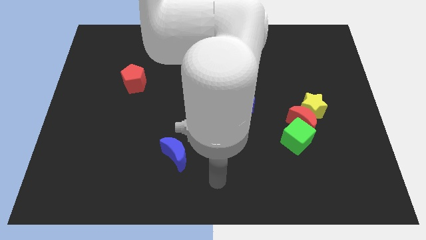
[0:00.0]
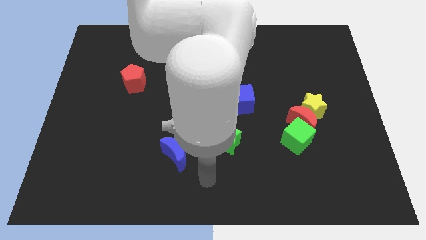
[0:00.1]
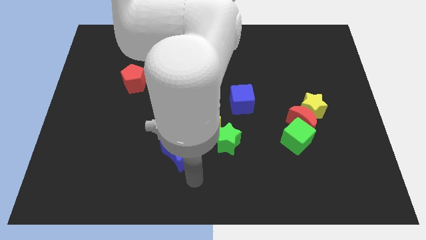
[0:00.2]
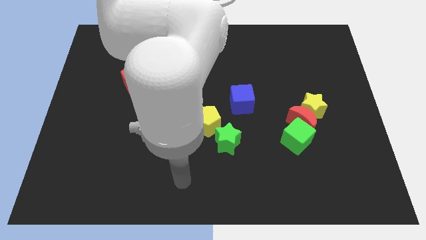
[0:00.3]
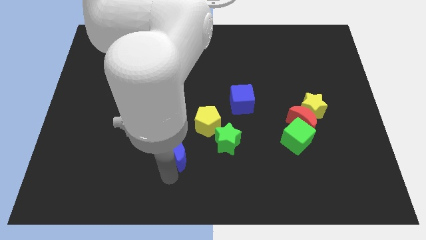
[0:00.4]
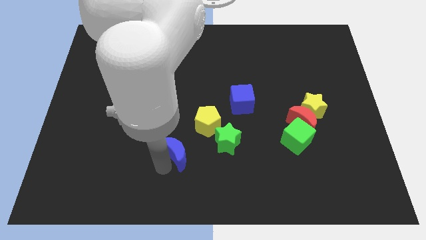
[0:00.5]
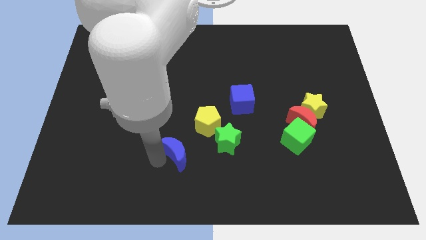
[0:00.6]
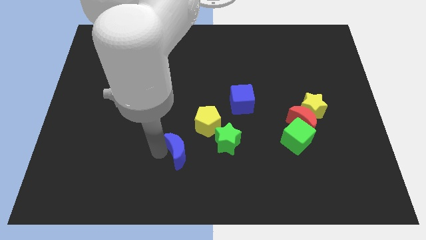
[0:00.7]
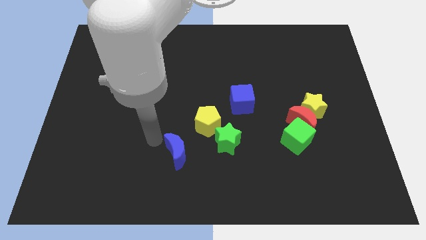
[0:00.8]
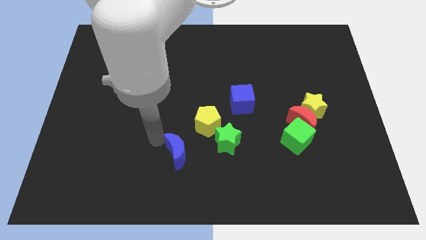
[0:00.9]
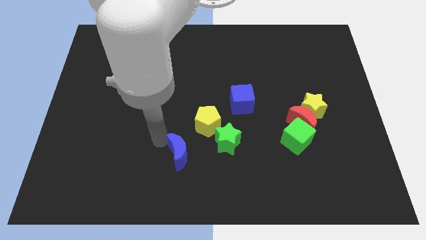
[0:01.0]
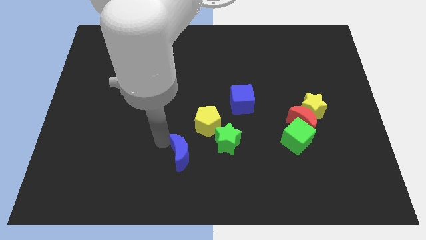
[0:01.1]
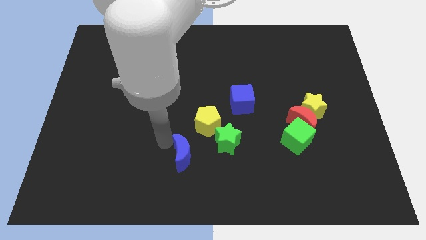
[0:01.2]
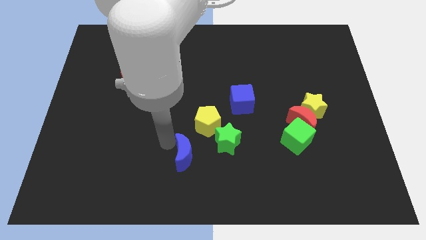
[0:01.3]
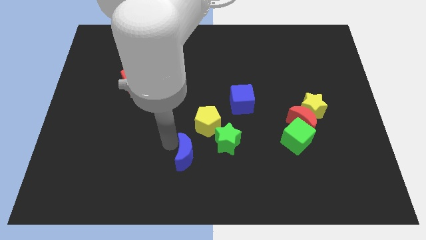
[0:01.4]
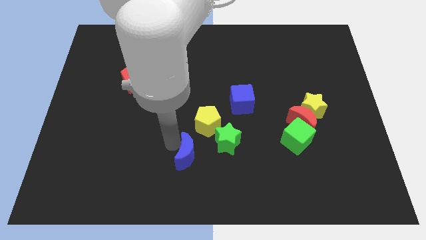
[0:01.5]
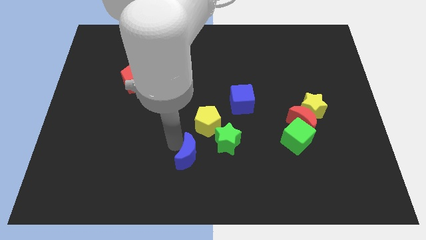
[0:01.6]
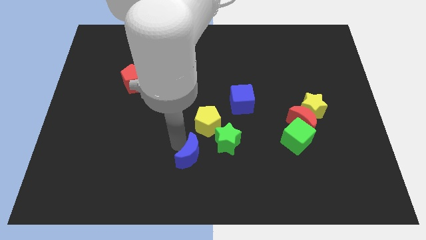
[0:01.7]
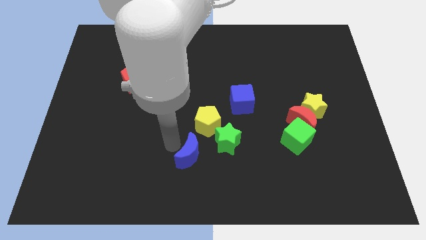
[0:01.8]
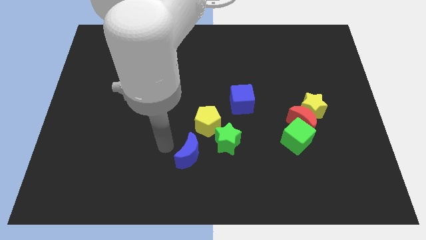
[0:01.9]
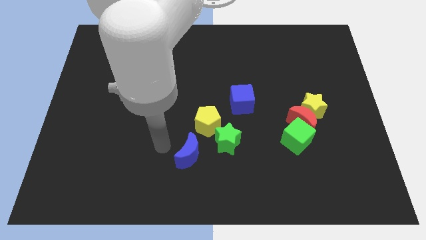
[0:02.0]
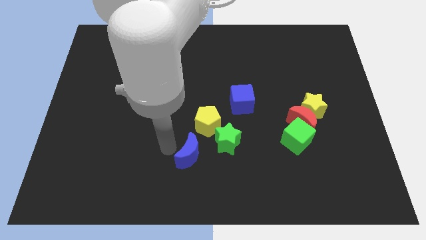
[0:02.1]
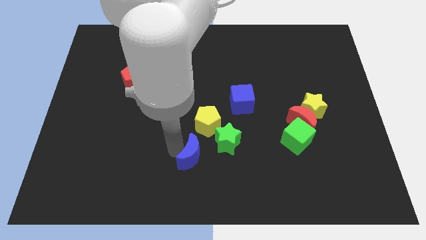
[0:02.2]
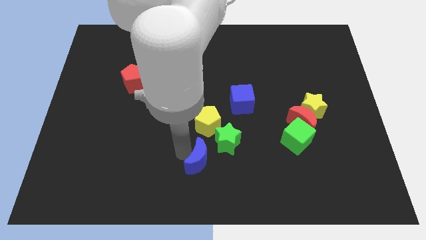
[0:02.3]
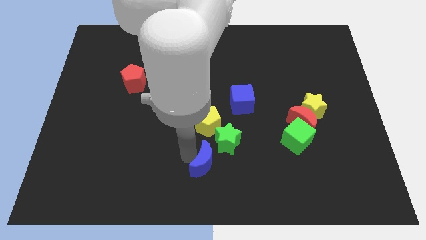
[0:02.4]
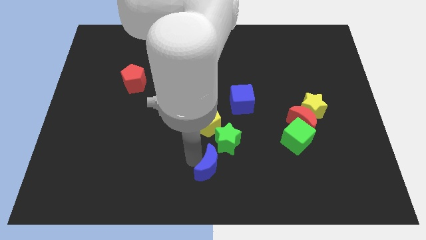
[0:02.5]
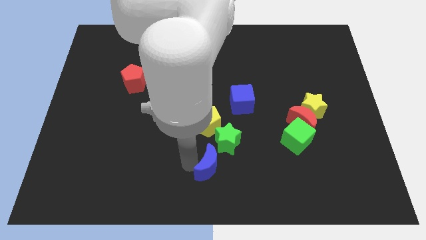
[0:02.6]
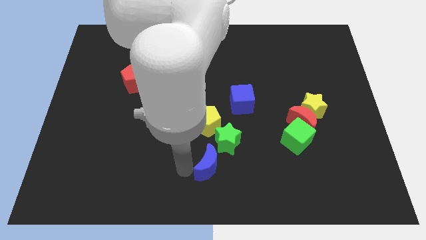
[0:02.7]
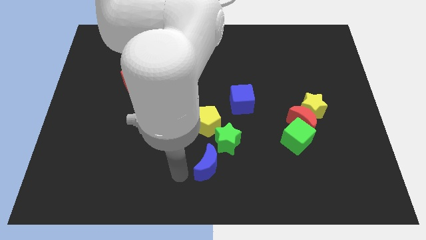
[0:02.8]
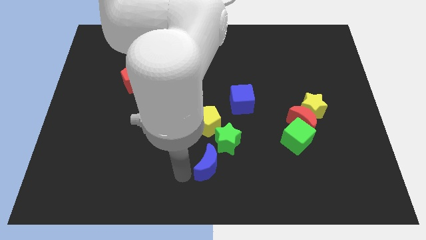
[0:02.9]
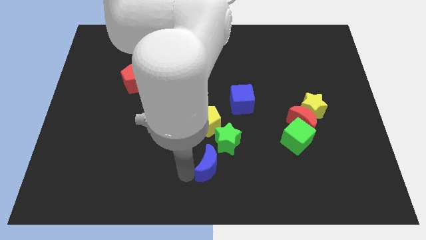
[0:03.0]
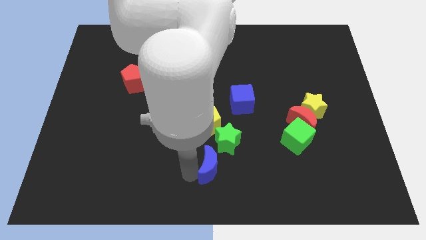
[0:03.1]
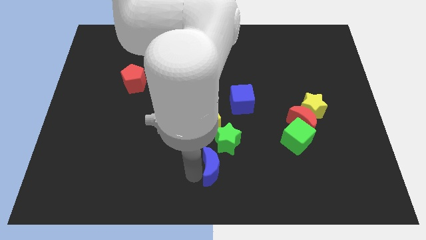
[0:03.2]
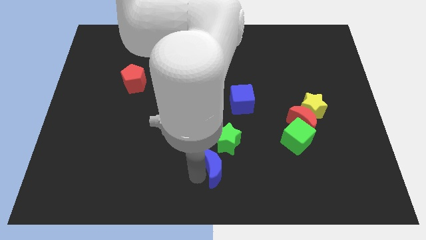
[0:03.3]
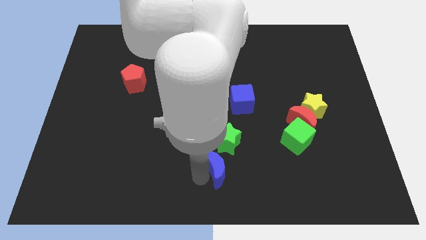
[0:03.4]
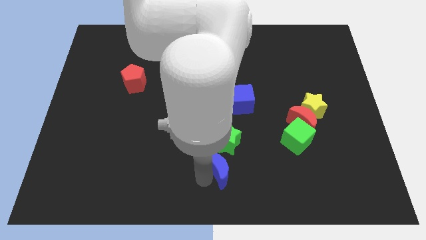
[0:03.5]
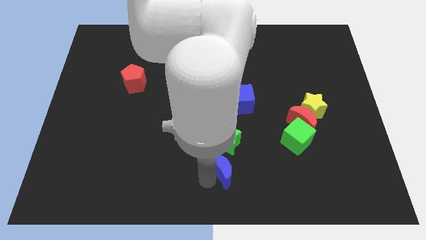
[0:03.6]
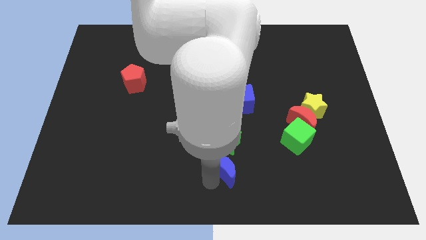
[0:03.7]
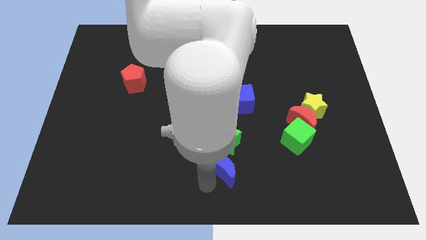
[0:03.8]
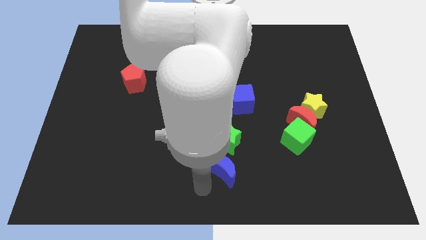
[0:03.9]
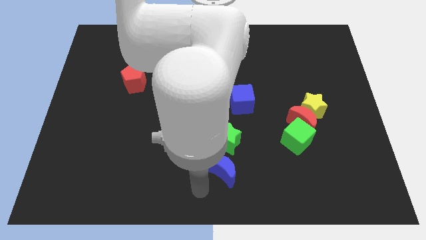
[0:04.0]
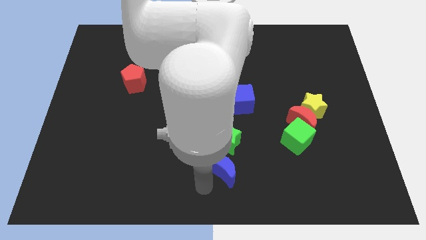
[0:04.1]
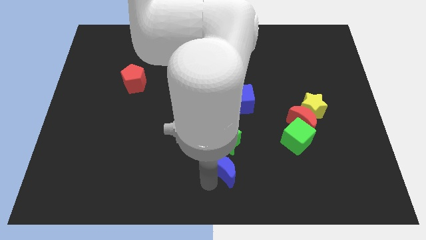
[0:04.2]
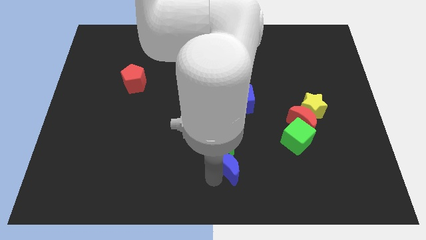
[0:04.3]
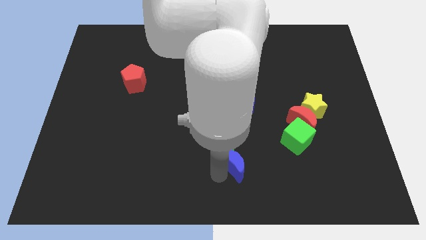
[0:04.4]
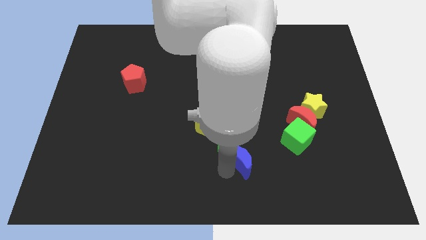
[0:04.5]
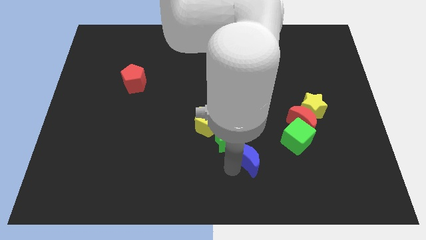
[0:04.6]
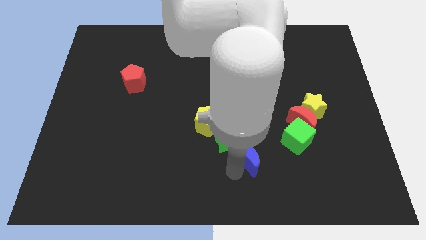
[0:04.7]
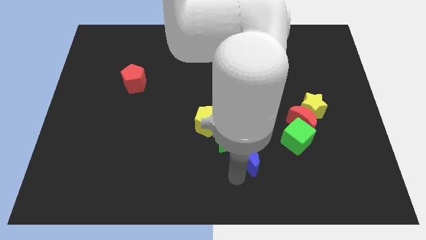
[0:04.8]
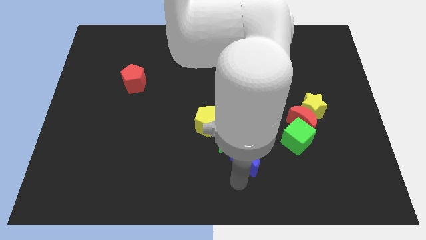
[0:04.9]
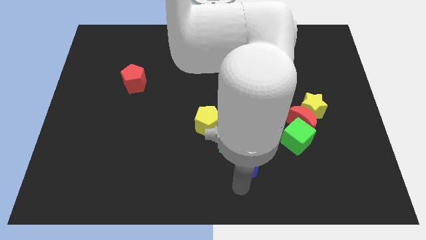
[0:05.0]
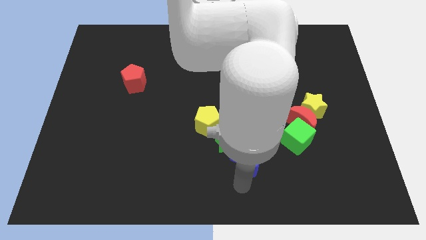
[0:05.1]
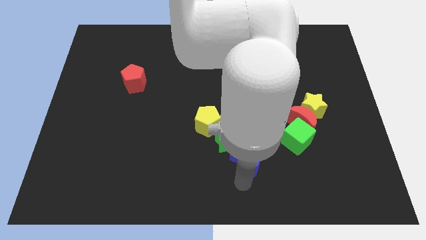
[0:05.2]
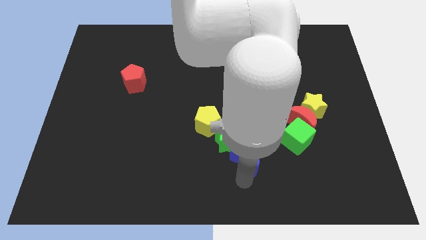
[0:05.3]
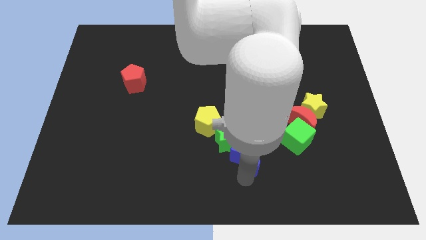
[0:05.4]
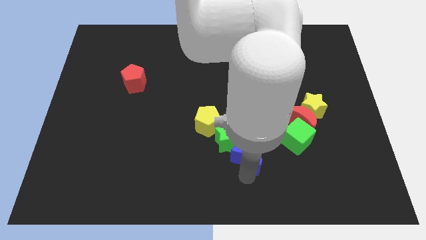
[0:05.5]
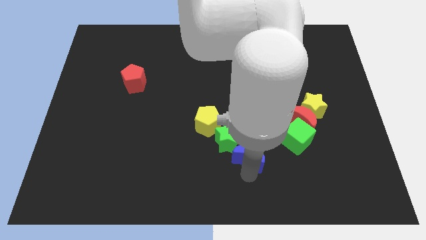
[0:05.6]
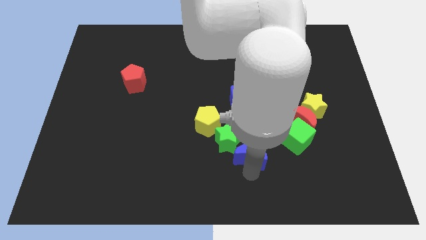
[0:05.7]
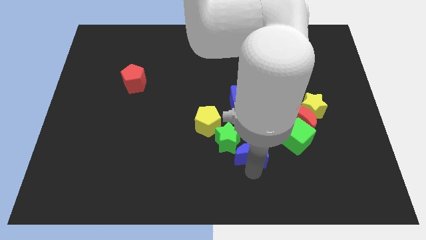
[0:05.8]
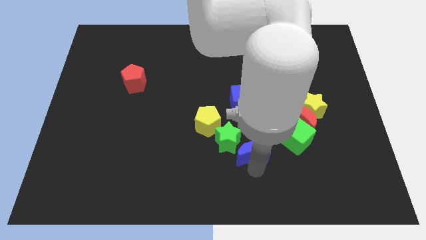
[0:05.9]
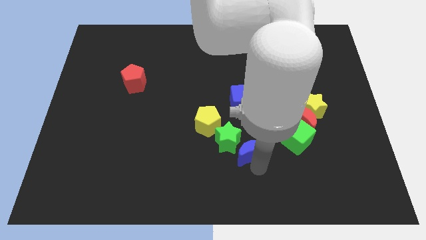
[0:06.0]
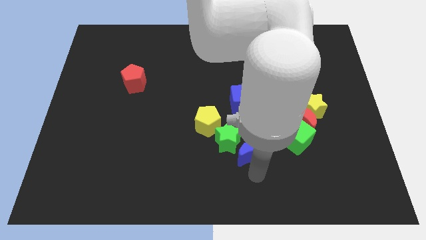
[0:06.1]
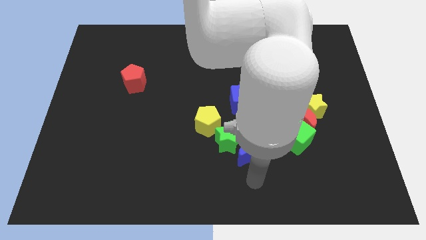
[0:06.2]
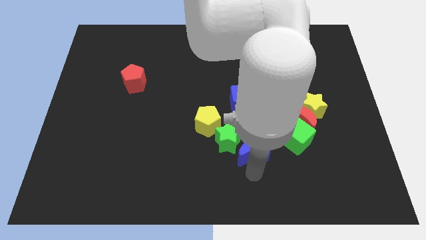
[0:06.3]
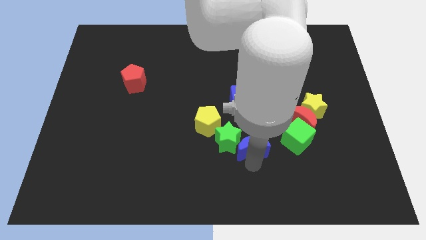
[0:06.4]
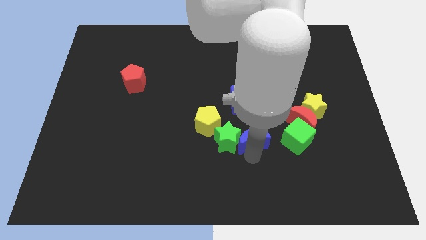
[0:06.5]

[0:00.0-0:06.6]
slide the blue moon to the top right side of the green star

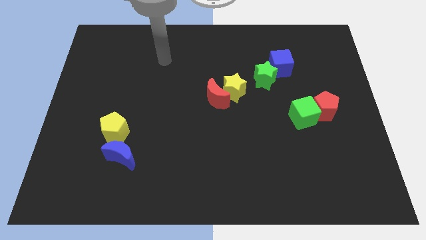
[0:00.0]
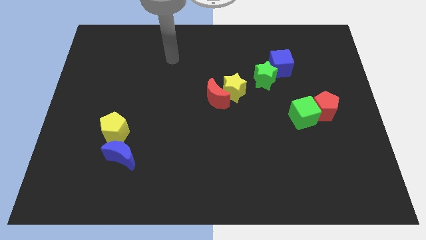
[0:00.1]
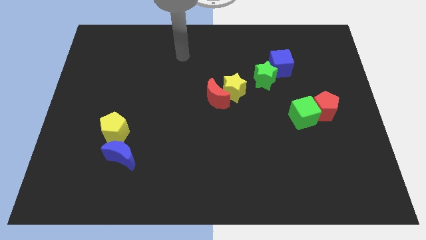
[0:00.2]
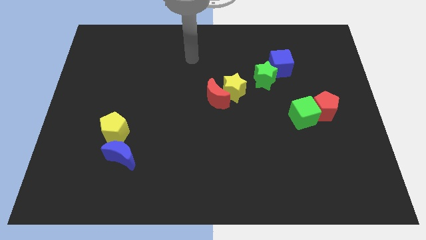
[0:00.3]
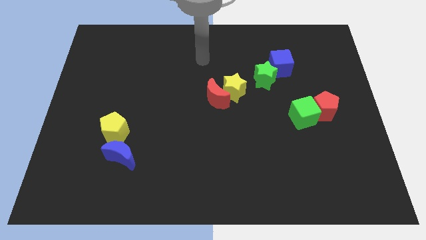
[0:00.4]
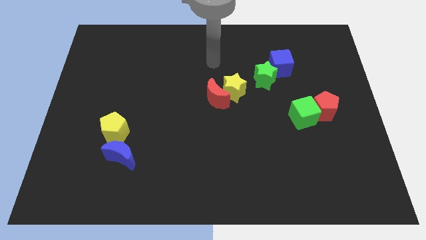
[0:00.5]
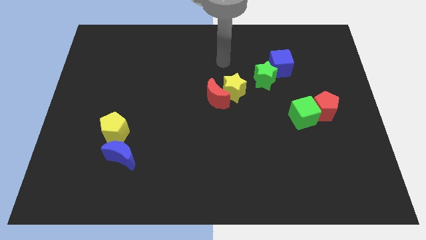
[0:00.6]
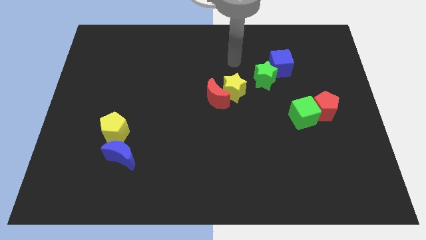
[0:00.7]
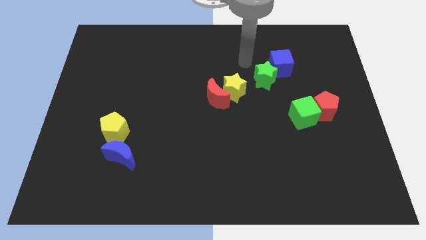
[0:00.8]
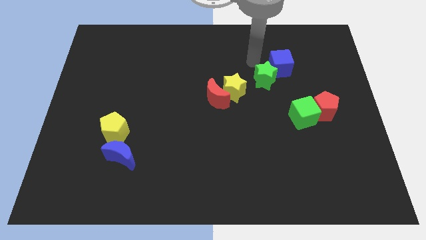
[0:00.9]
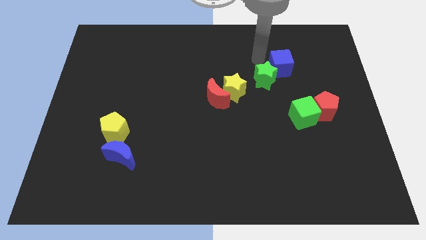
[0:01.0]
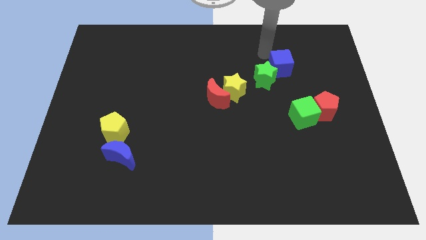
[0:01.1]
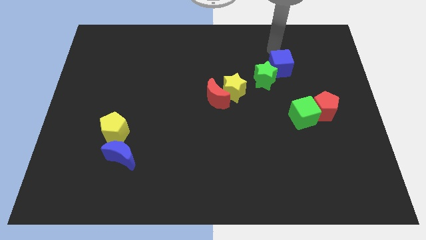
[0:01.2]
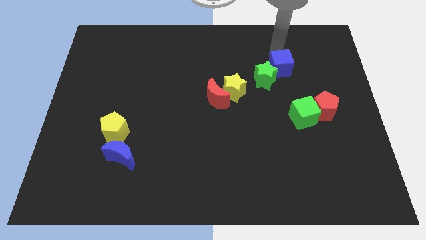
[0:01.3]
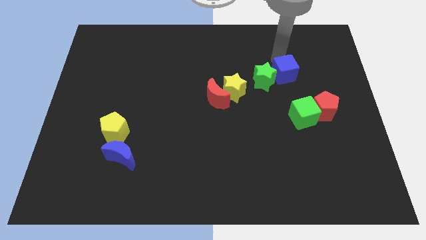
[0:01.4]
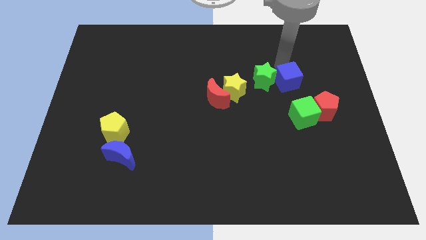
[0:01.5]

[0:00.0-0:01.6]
put the blue cube to the bottom right side of the green star
